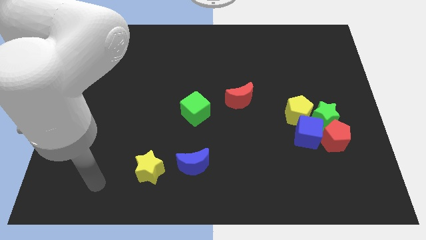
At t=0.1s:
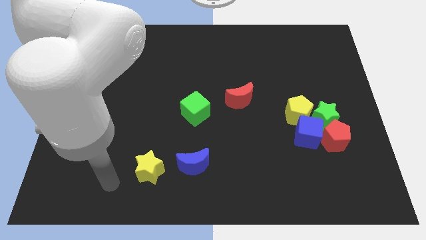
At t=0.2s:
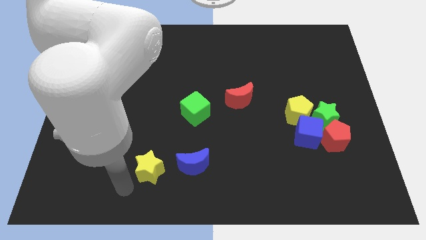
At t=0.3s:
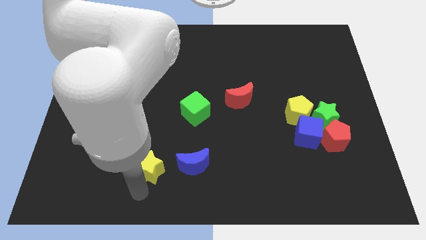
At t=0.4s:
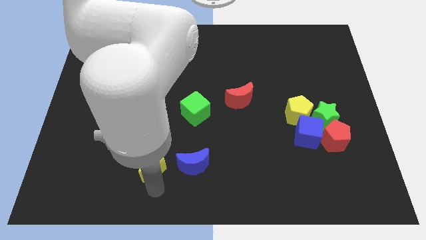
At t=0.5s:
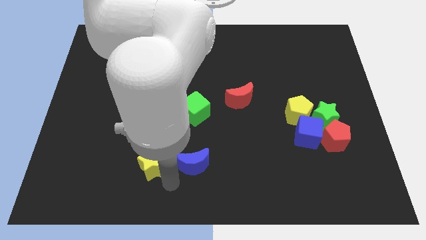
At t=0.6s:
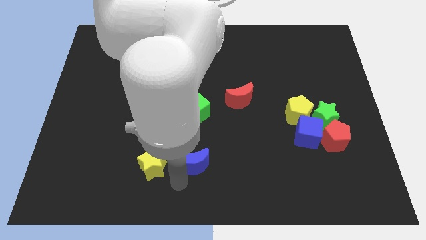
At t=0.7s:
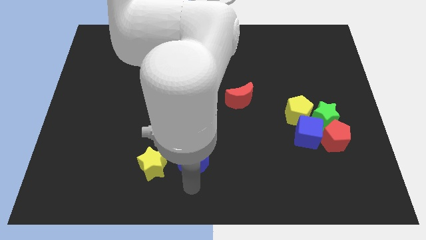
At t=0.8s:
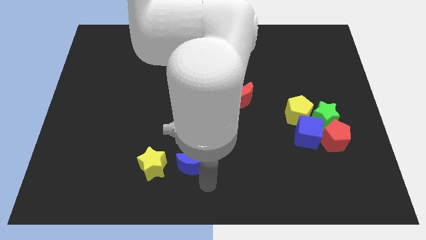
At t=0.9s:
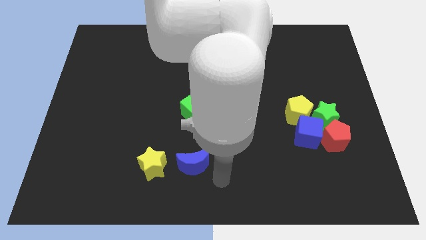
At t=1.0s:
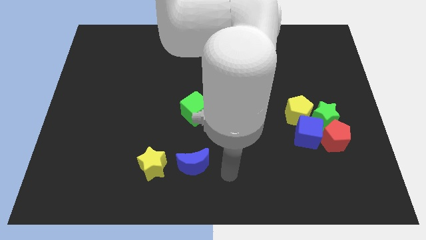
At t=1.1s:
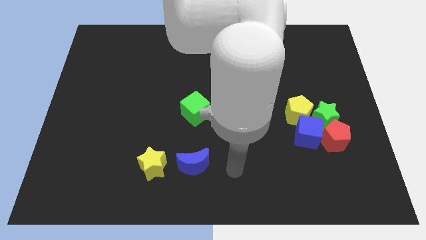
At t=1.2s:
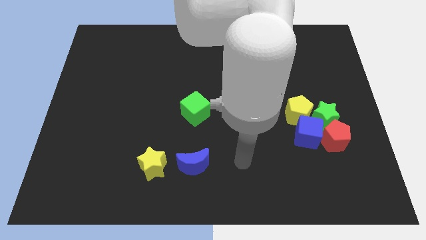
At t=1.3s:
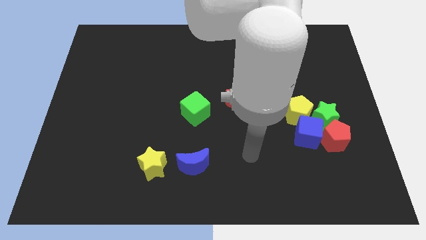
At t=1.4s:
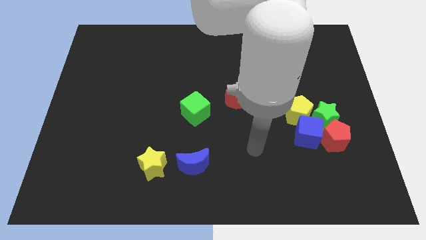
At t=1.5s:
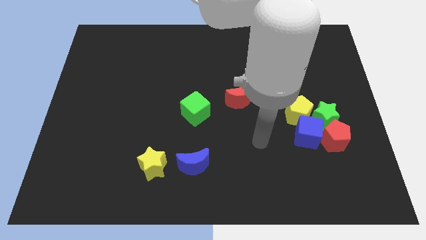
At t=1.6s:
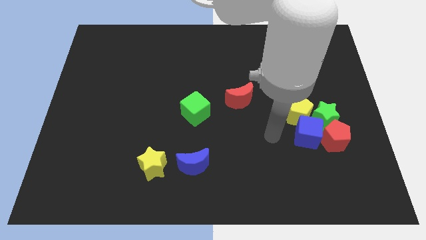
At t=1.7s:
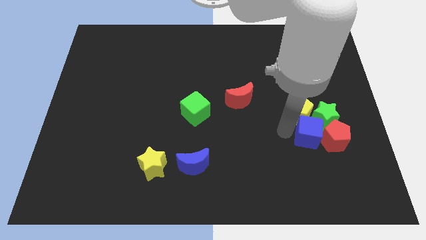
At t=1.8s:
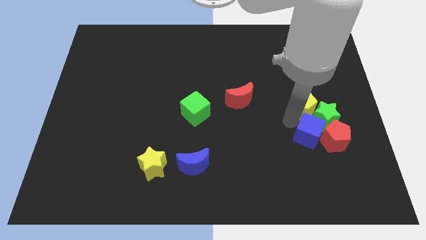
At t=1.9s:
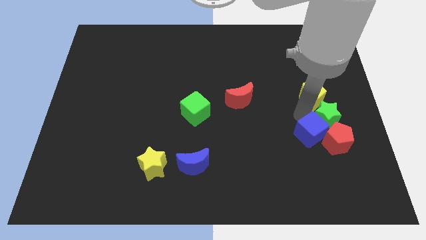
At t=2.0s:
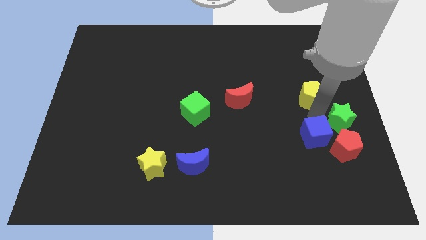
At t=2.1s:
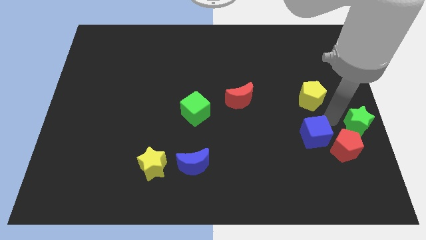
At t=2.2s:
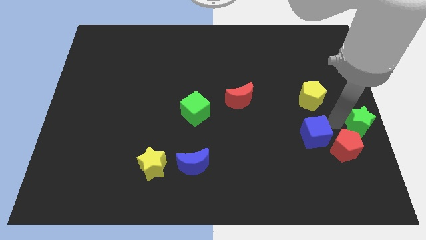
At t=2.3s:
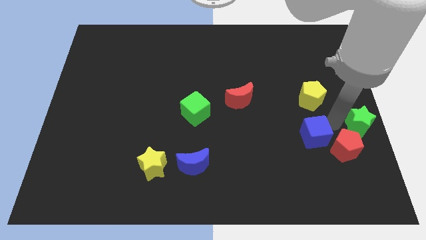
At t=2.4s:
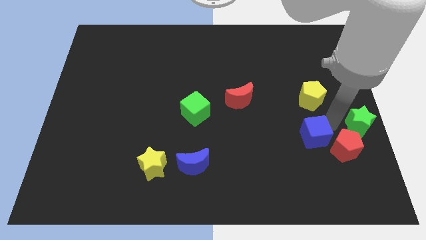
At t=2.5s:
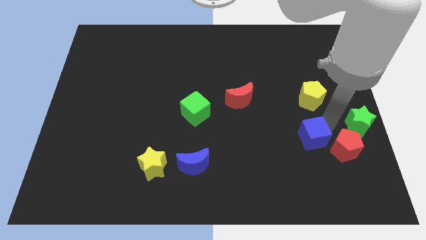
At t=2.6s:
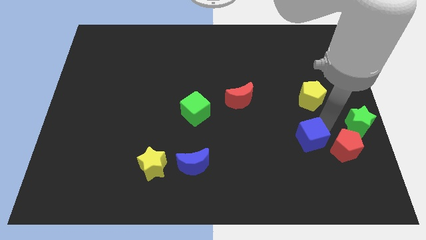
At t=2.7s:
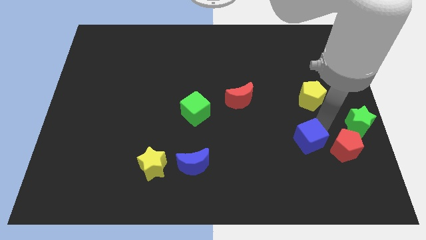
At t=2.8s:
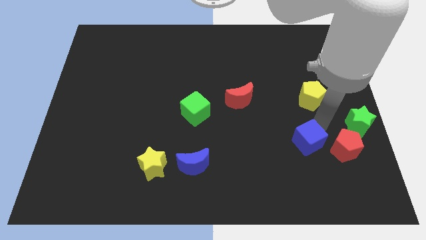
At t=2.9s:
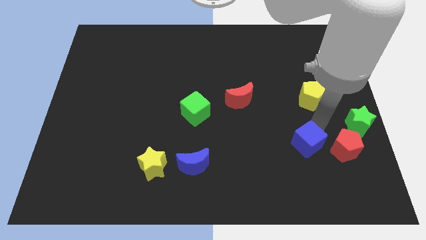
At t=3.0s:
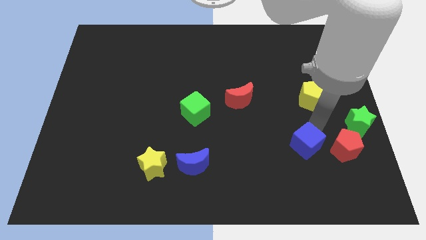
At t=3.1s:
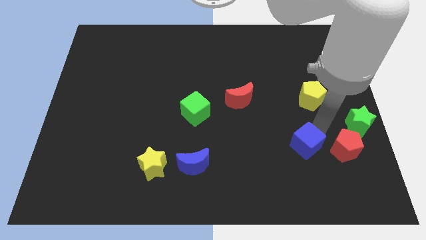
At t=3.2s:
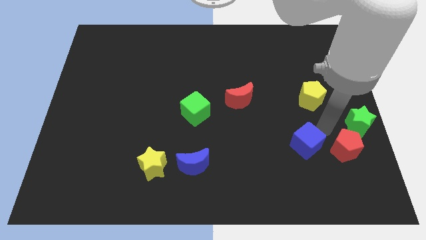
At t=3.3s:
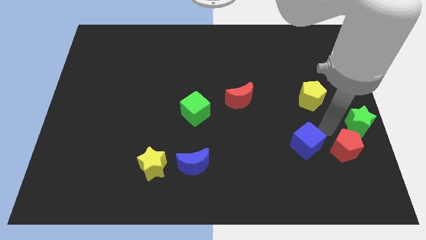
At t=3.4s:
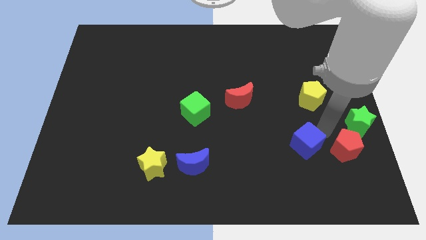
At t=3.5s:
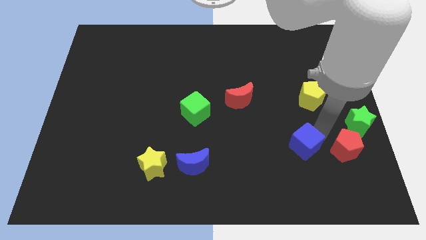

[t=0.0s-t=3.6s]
pull the blue cube apart from the group of blocks

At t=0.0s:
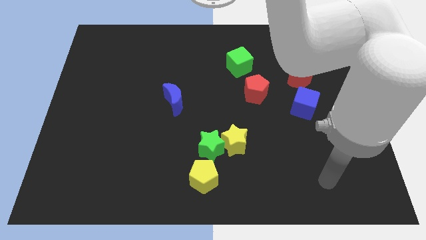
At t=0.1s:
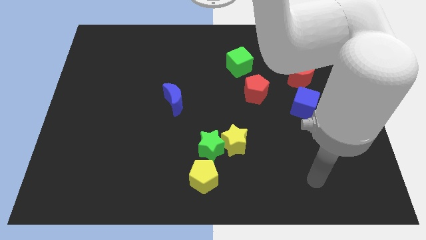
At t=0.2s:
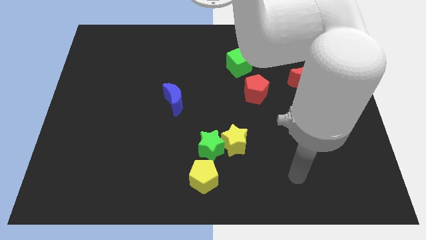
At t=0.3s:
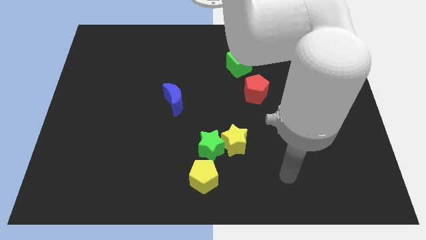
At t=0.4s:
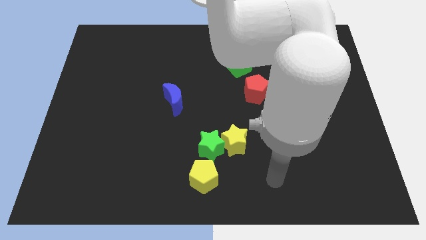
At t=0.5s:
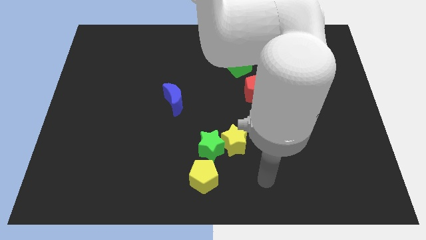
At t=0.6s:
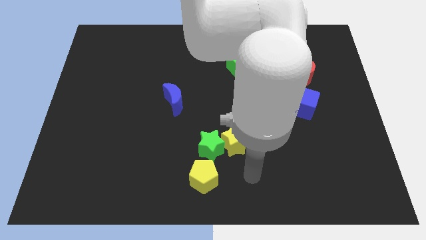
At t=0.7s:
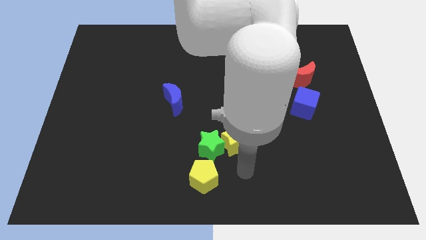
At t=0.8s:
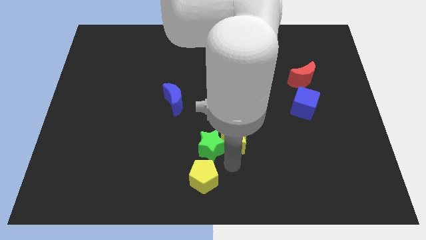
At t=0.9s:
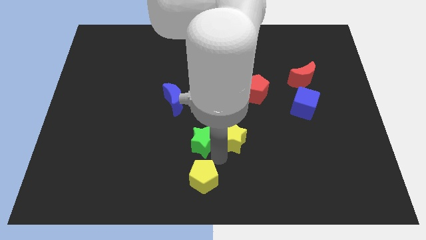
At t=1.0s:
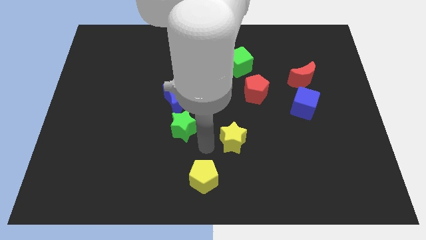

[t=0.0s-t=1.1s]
pull the yellow star apart from the green star

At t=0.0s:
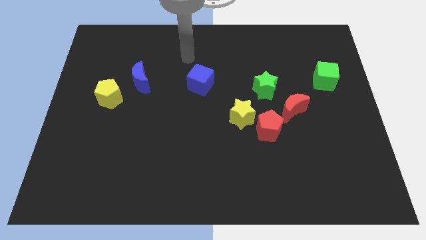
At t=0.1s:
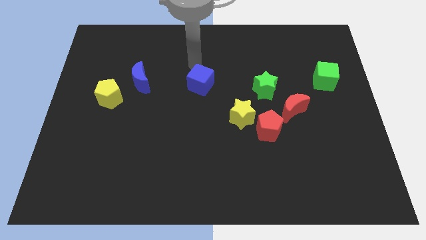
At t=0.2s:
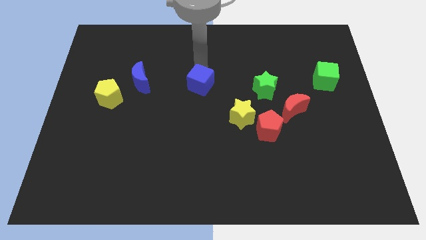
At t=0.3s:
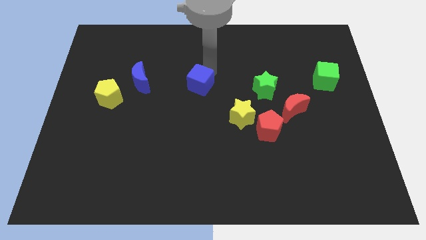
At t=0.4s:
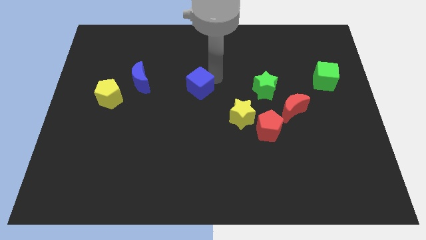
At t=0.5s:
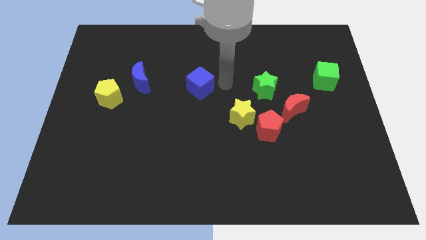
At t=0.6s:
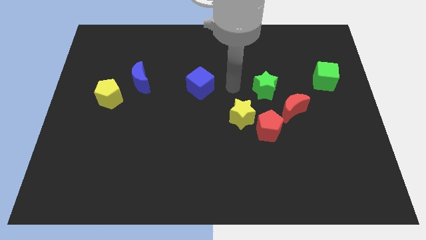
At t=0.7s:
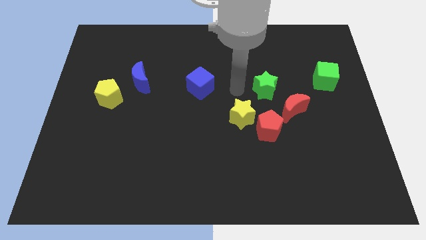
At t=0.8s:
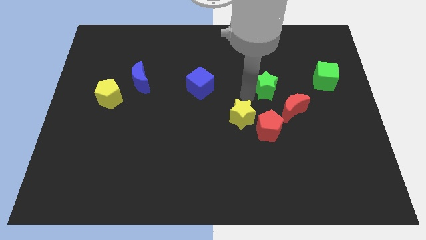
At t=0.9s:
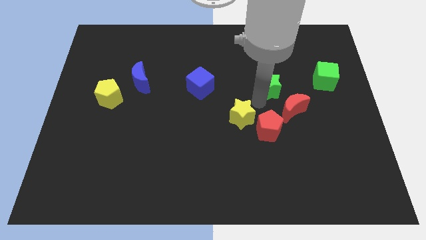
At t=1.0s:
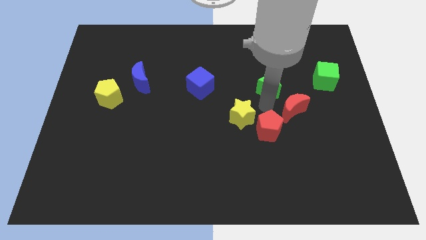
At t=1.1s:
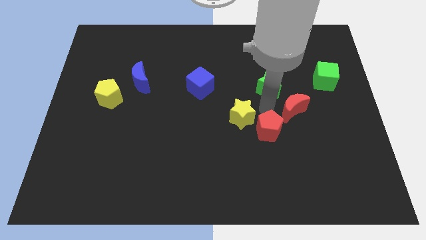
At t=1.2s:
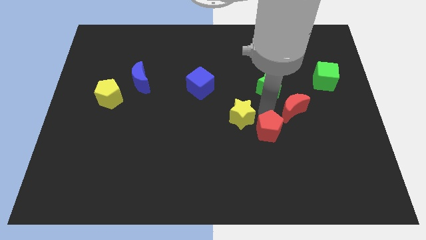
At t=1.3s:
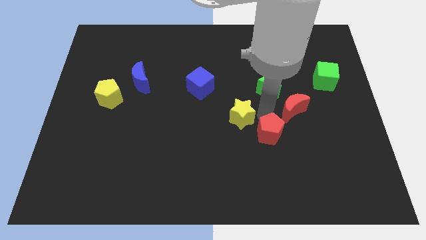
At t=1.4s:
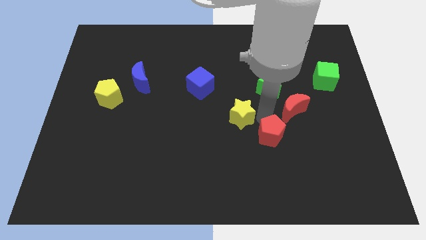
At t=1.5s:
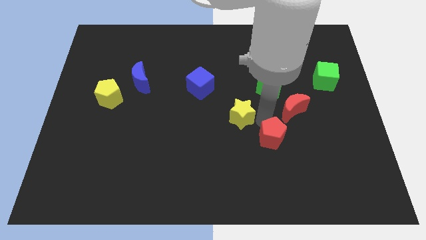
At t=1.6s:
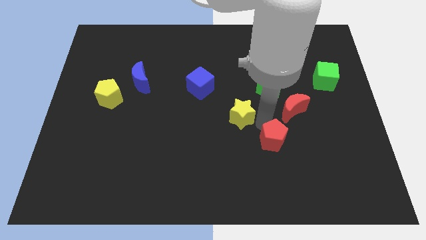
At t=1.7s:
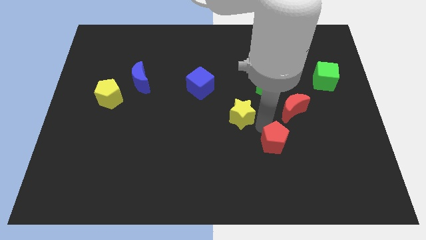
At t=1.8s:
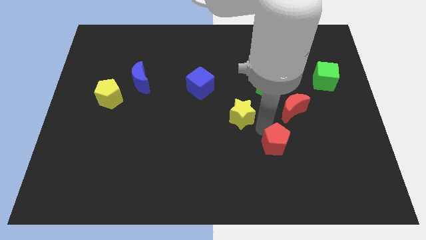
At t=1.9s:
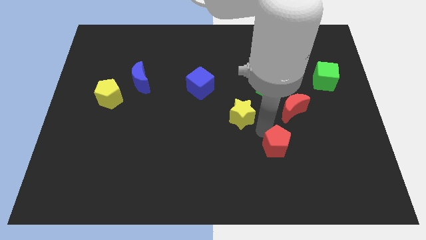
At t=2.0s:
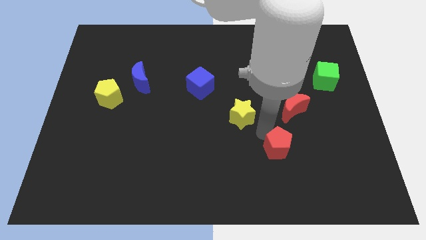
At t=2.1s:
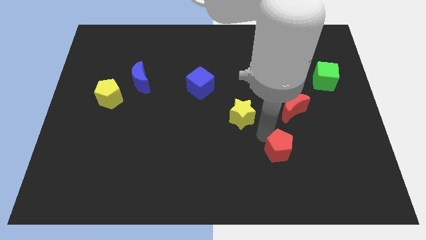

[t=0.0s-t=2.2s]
pull the red pentagon apart from the yellow star and red moon

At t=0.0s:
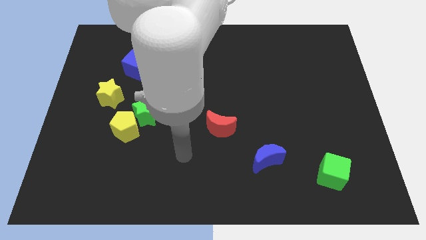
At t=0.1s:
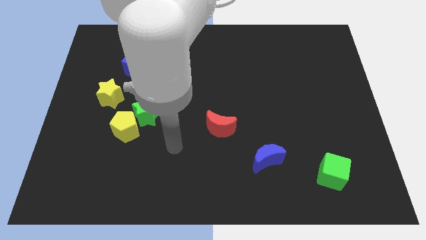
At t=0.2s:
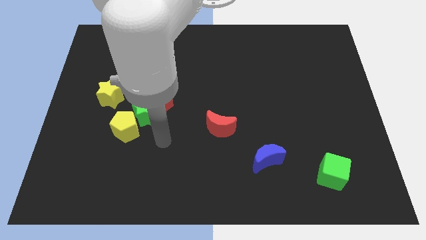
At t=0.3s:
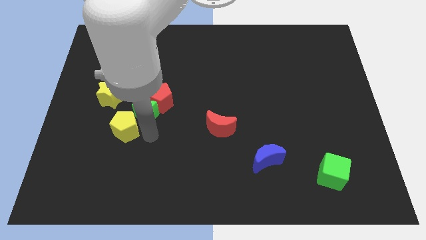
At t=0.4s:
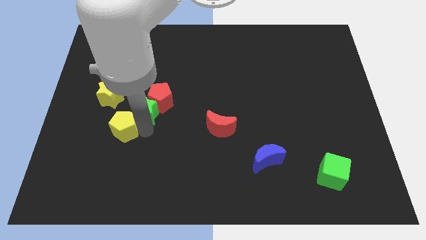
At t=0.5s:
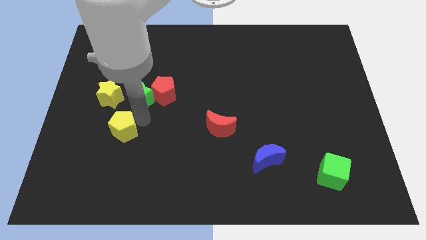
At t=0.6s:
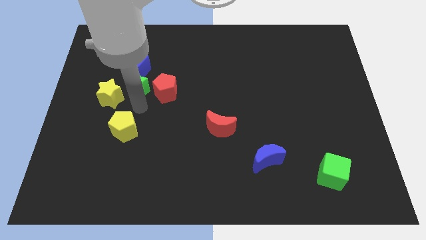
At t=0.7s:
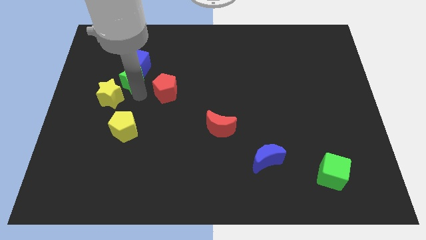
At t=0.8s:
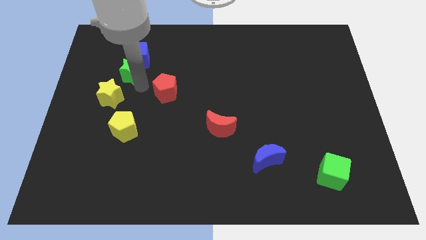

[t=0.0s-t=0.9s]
separate the red pentagon from the green star

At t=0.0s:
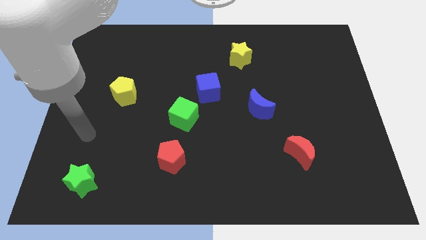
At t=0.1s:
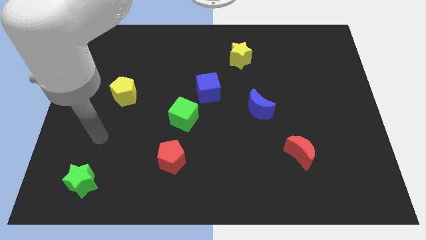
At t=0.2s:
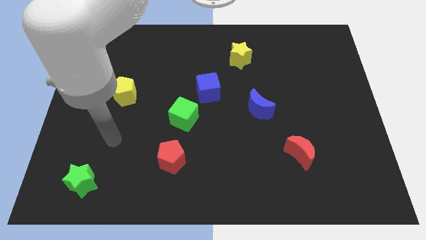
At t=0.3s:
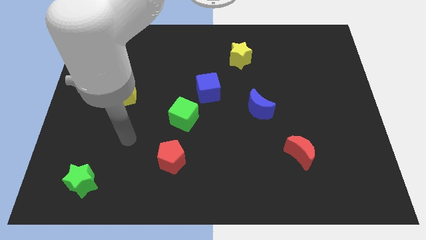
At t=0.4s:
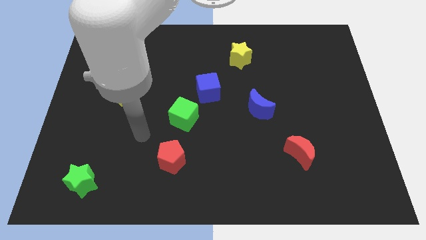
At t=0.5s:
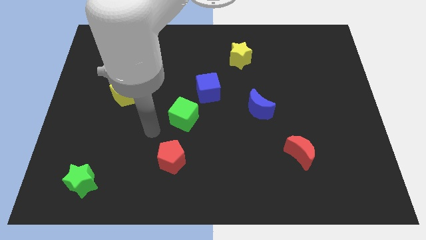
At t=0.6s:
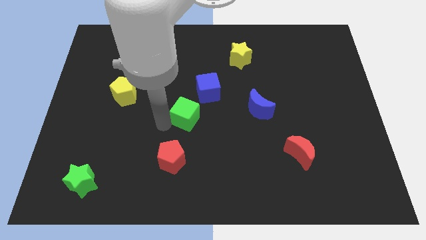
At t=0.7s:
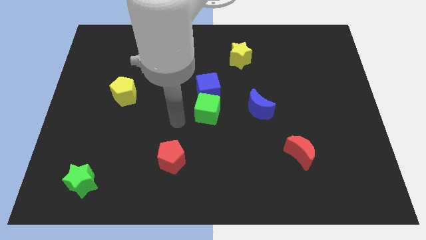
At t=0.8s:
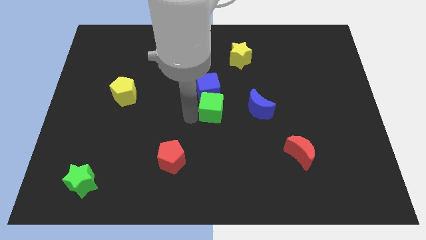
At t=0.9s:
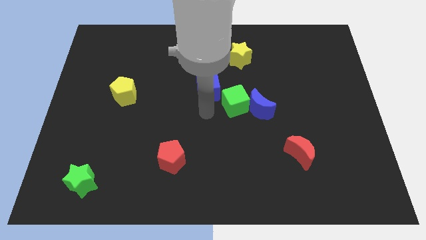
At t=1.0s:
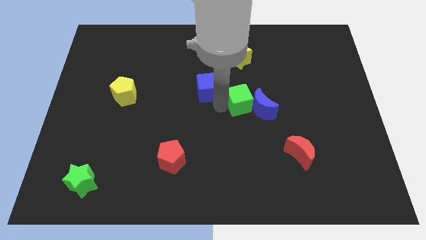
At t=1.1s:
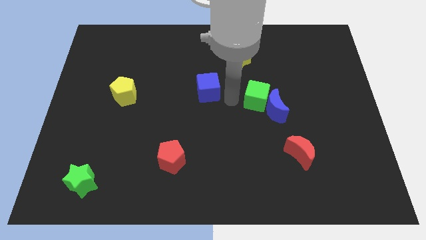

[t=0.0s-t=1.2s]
separate the blue cube from the green cube

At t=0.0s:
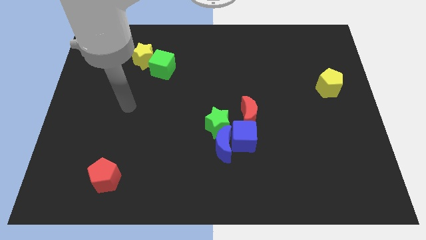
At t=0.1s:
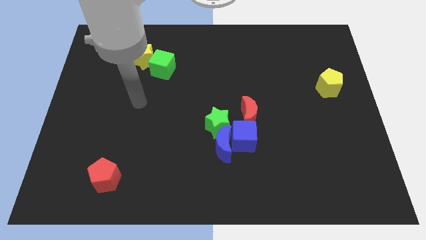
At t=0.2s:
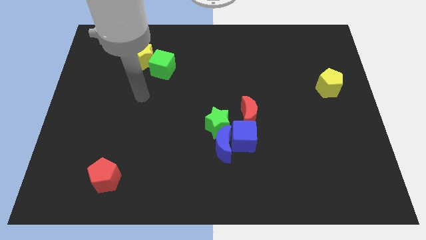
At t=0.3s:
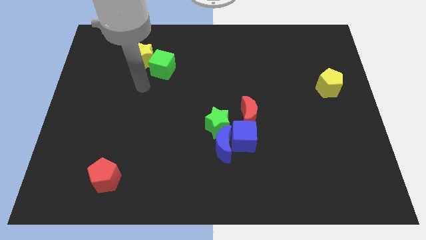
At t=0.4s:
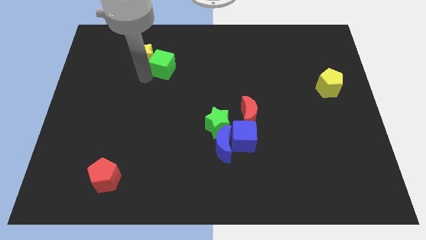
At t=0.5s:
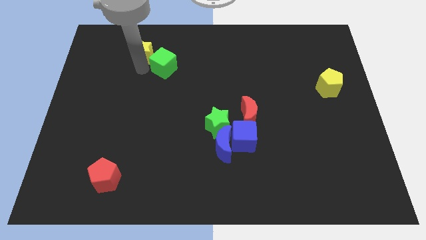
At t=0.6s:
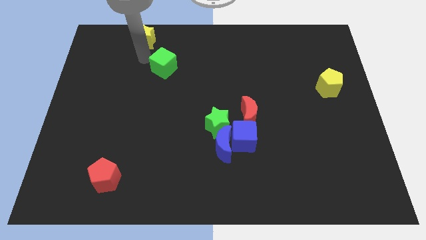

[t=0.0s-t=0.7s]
separate the green cube from the yellow star
